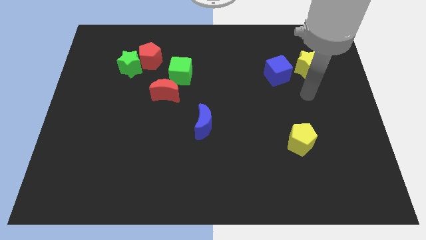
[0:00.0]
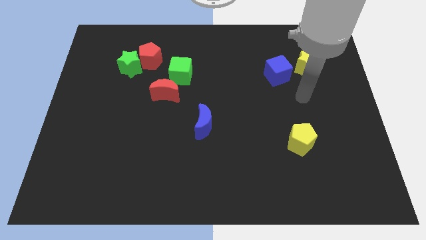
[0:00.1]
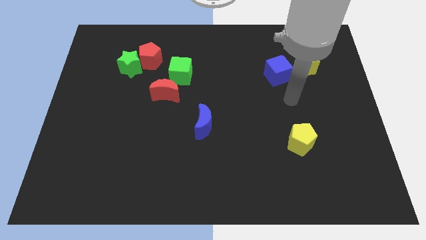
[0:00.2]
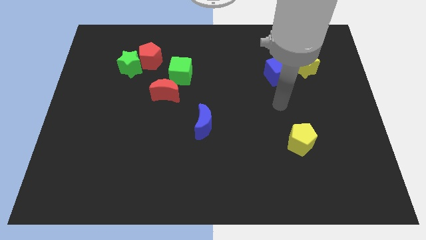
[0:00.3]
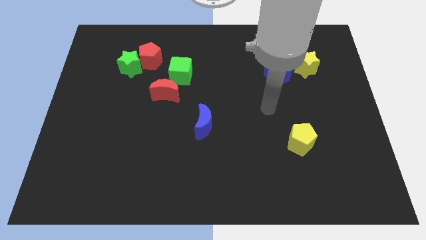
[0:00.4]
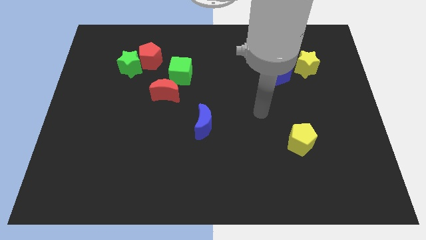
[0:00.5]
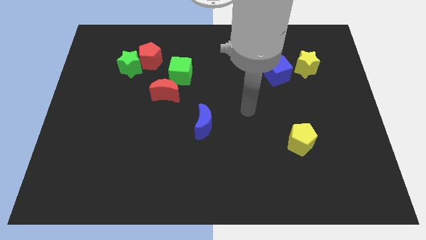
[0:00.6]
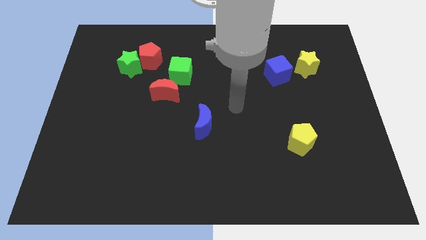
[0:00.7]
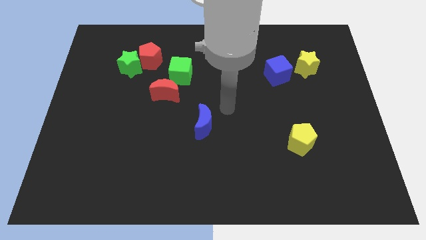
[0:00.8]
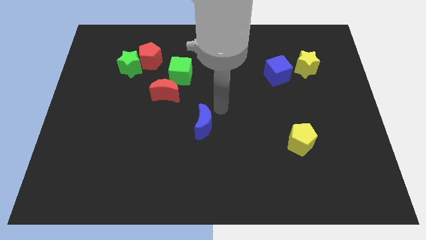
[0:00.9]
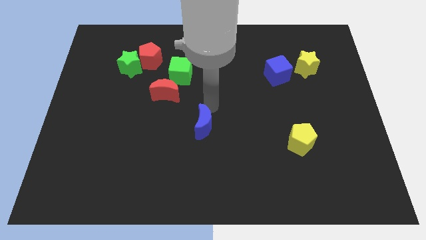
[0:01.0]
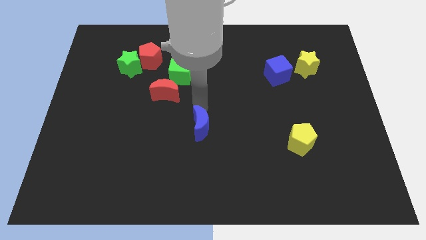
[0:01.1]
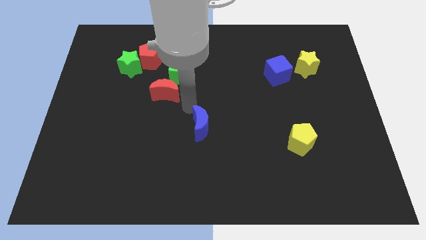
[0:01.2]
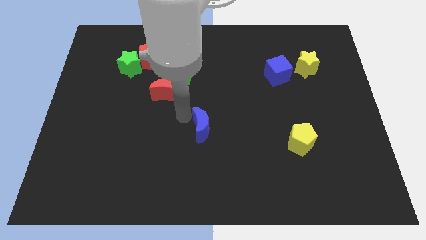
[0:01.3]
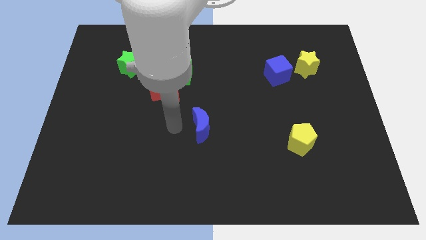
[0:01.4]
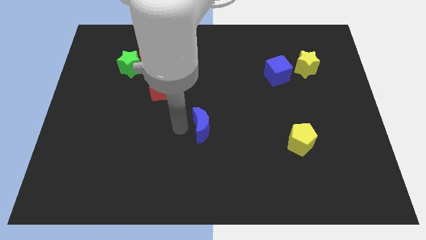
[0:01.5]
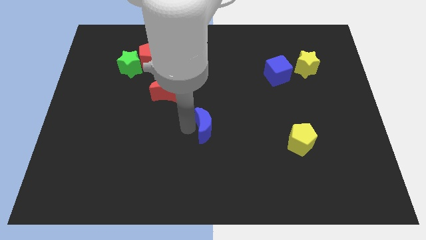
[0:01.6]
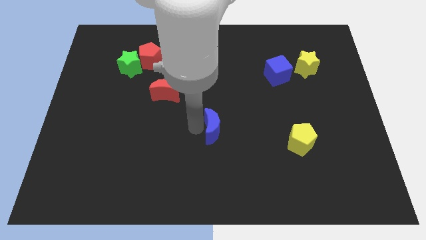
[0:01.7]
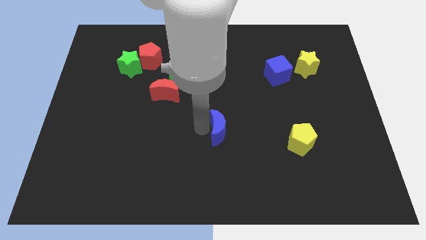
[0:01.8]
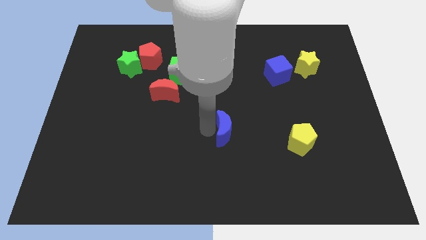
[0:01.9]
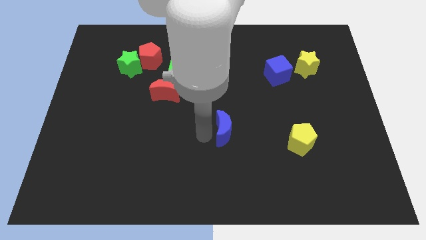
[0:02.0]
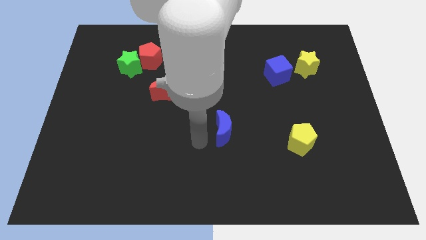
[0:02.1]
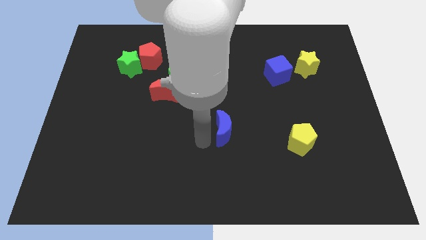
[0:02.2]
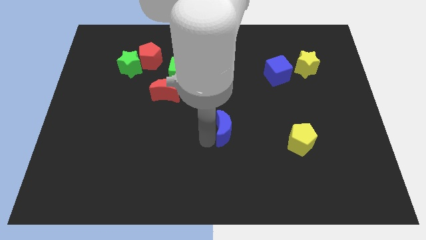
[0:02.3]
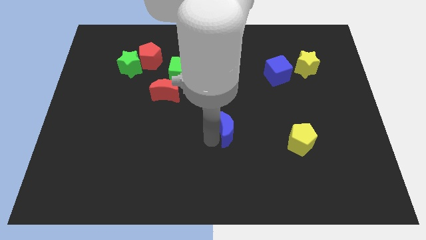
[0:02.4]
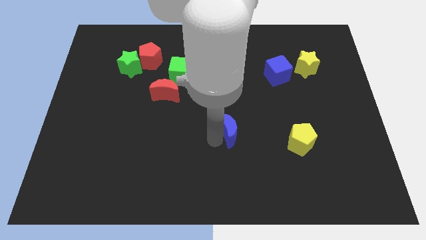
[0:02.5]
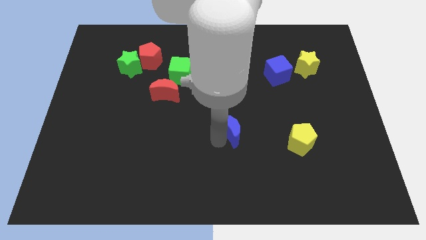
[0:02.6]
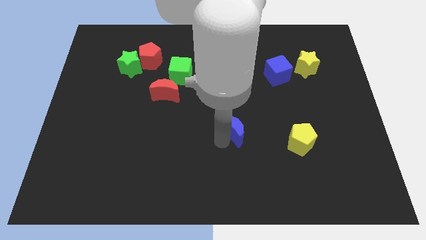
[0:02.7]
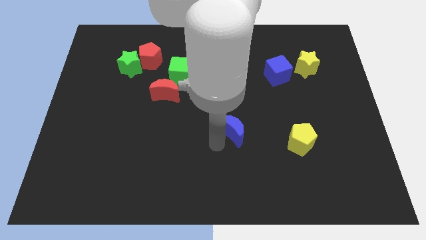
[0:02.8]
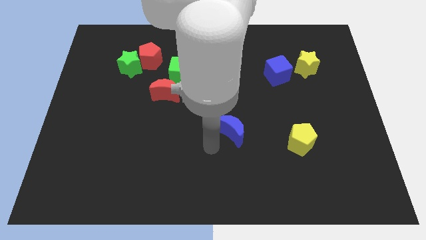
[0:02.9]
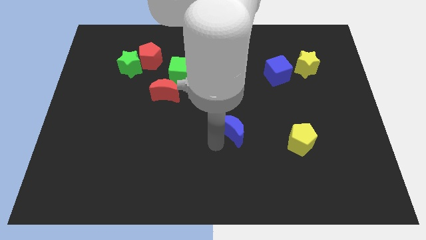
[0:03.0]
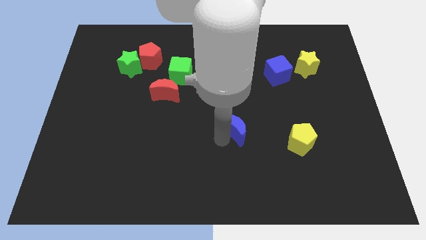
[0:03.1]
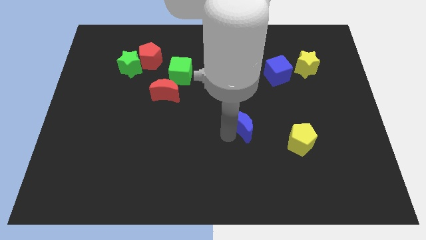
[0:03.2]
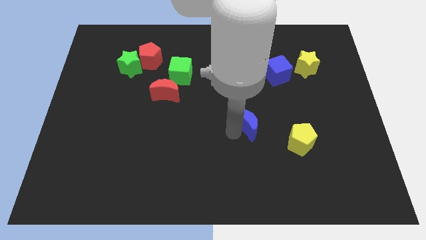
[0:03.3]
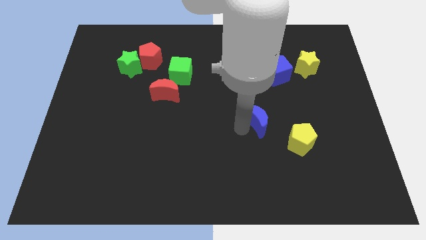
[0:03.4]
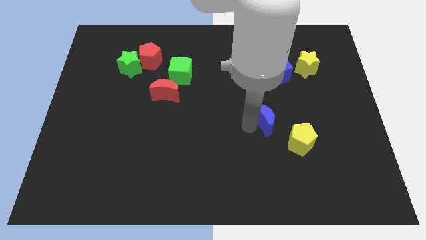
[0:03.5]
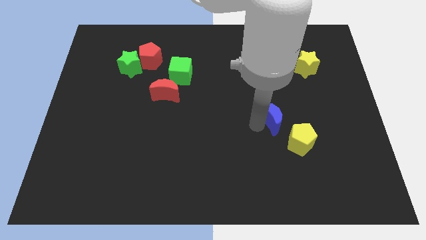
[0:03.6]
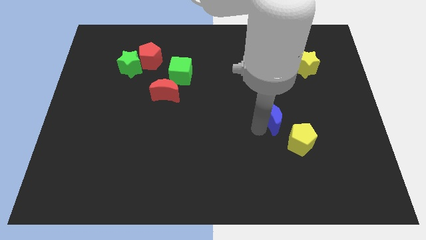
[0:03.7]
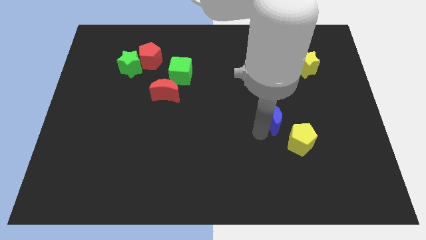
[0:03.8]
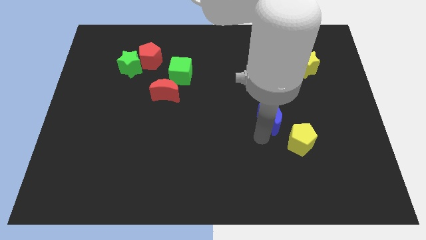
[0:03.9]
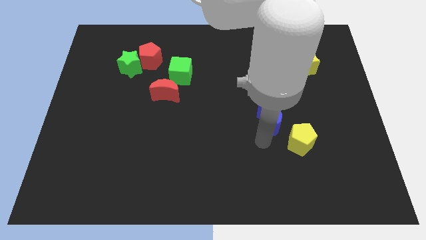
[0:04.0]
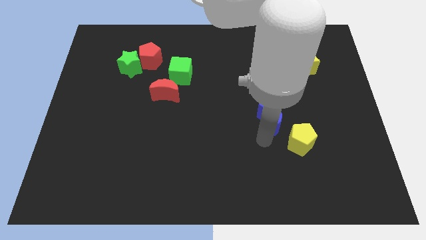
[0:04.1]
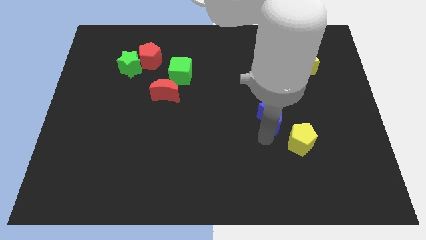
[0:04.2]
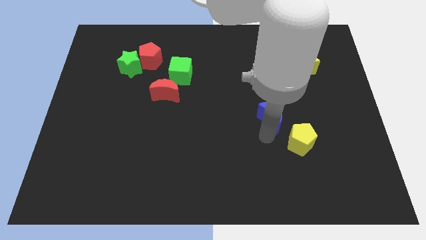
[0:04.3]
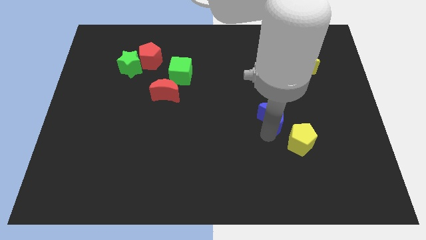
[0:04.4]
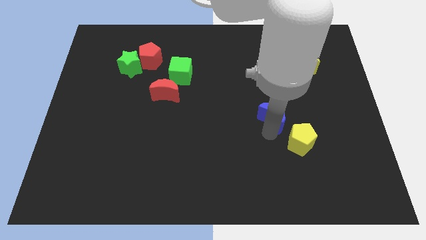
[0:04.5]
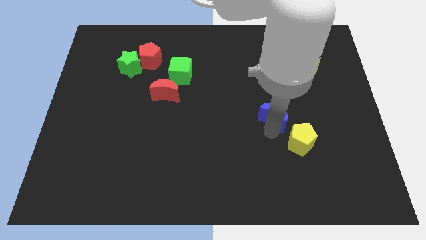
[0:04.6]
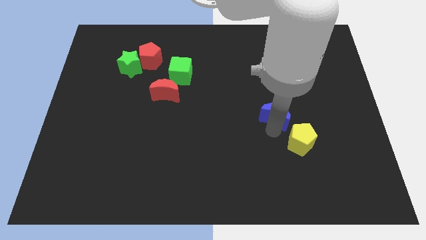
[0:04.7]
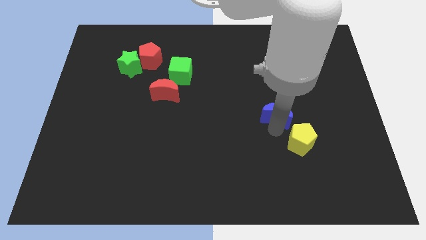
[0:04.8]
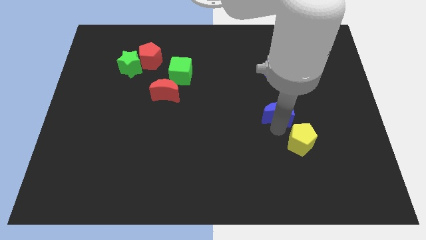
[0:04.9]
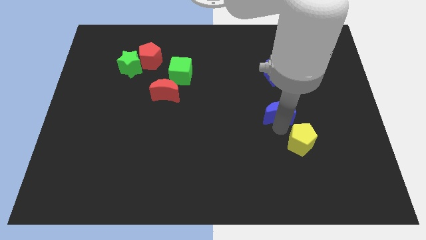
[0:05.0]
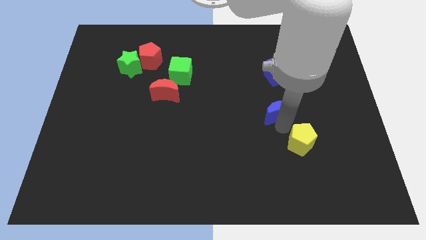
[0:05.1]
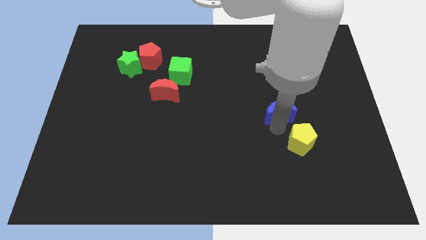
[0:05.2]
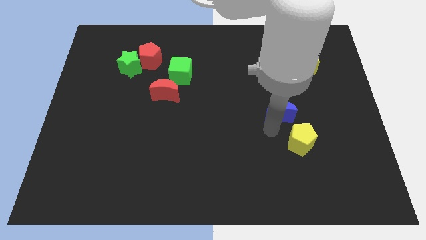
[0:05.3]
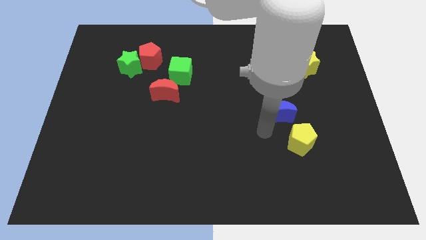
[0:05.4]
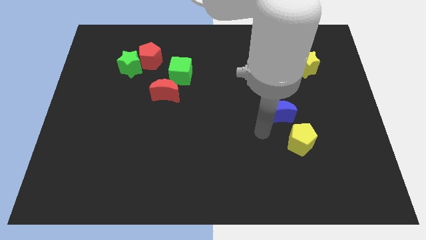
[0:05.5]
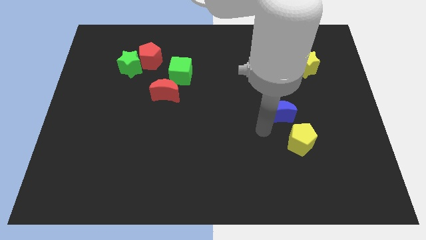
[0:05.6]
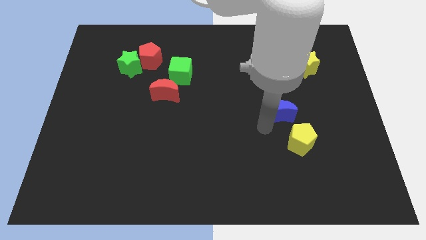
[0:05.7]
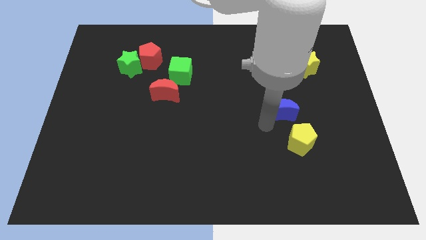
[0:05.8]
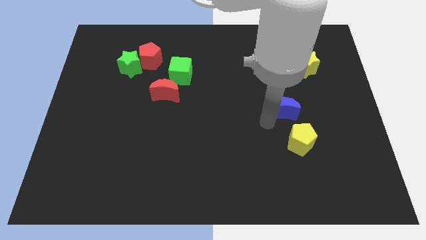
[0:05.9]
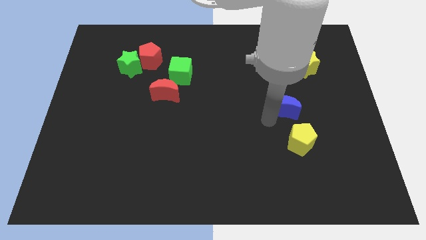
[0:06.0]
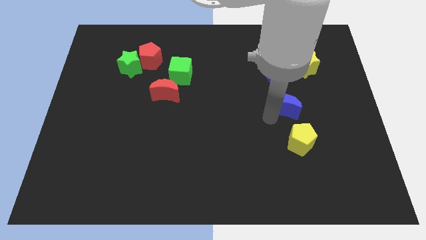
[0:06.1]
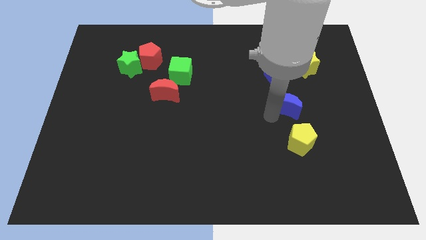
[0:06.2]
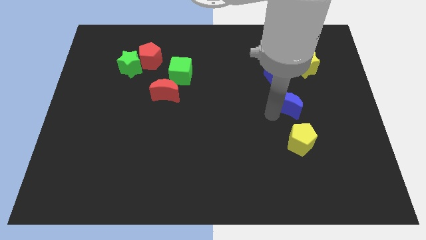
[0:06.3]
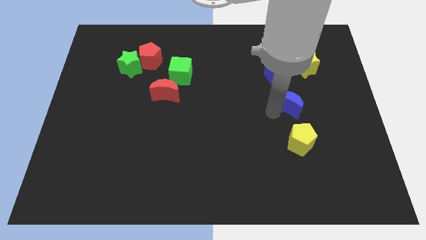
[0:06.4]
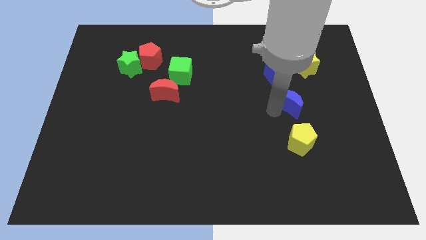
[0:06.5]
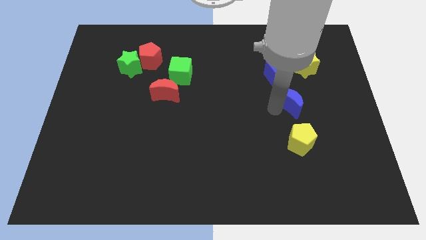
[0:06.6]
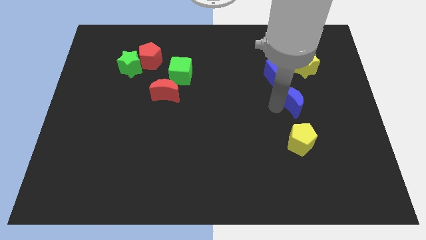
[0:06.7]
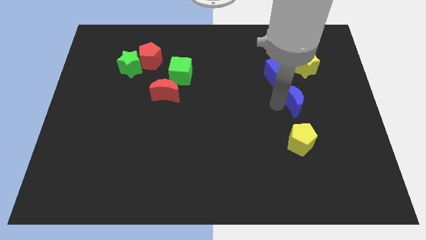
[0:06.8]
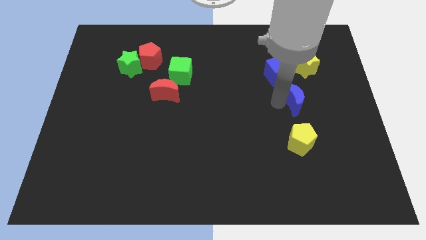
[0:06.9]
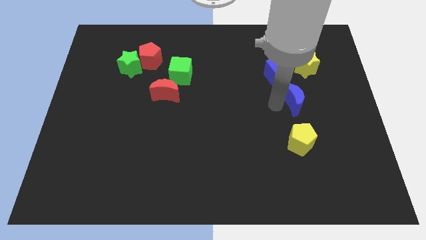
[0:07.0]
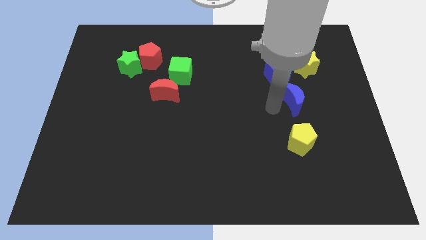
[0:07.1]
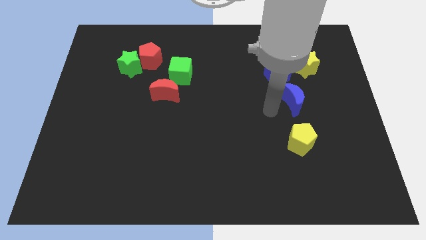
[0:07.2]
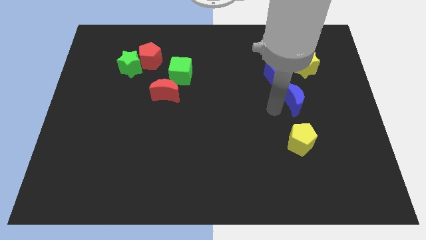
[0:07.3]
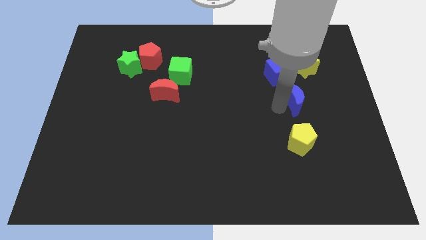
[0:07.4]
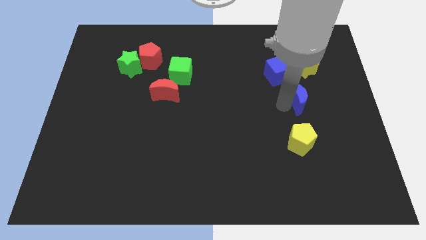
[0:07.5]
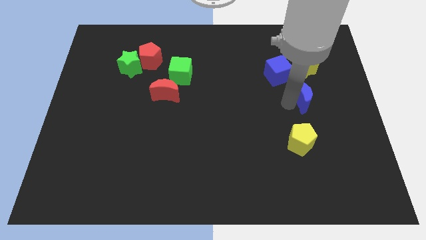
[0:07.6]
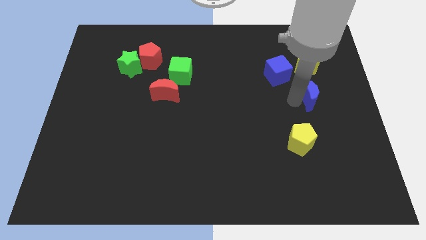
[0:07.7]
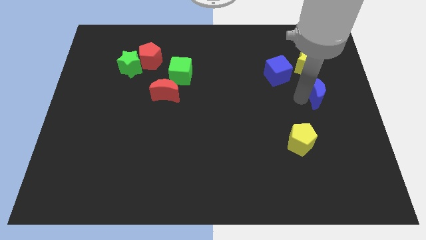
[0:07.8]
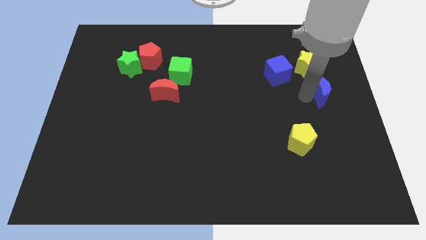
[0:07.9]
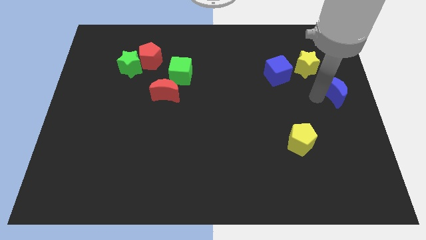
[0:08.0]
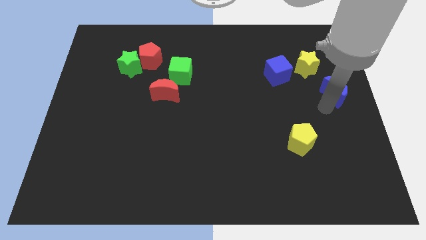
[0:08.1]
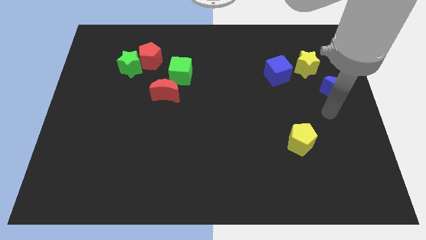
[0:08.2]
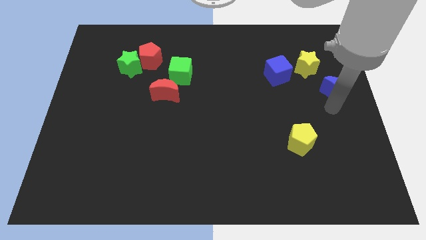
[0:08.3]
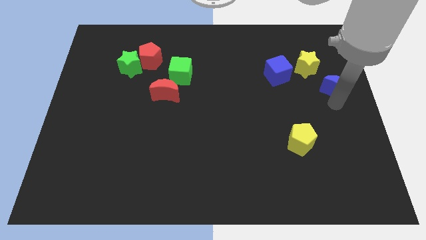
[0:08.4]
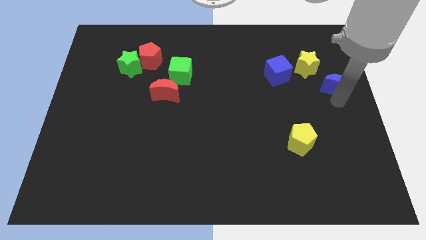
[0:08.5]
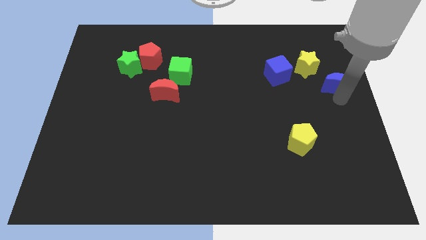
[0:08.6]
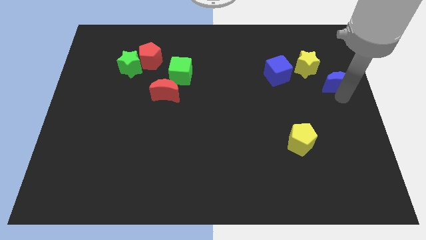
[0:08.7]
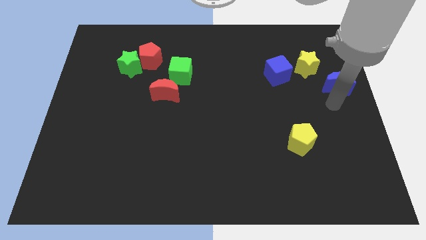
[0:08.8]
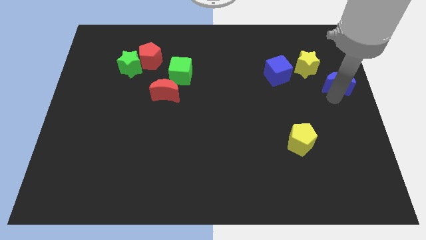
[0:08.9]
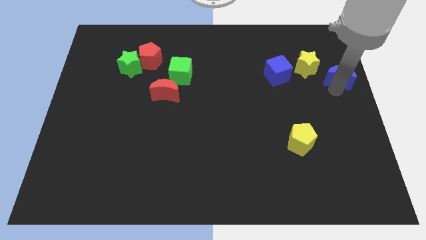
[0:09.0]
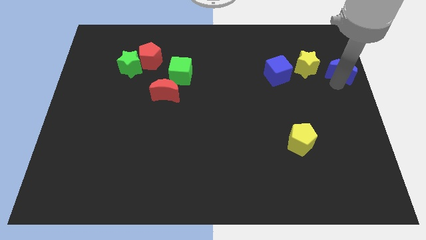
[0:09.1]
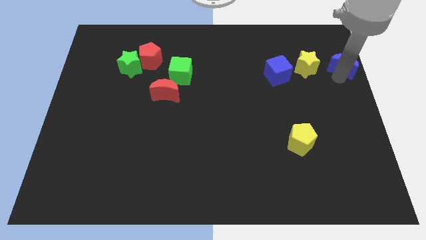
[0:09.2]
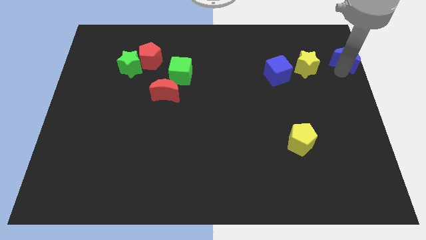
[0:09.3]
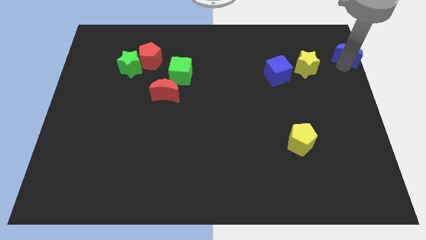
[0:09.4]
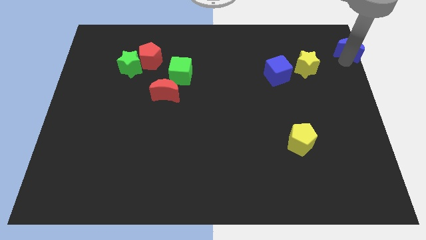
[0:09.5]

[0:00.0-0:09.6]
push the blue moon to the upper right corner
